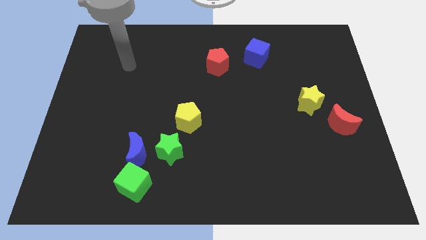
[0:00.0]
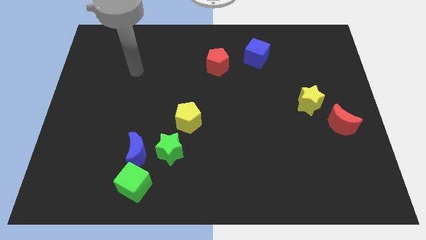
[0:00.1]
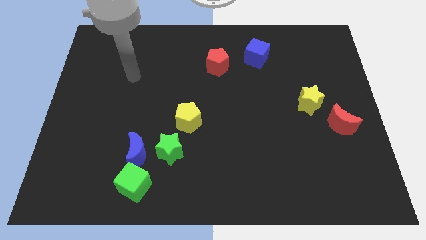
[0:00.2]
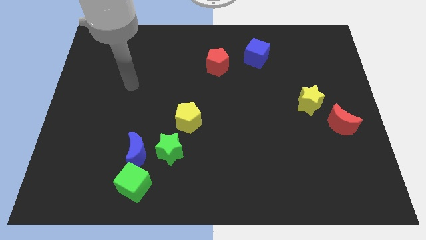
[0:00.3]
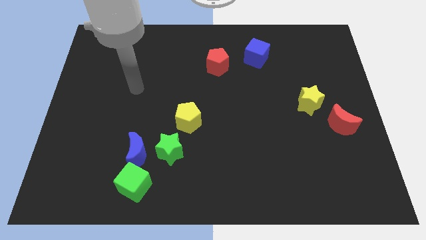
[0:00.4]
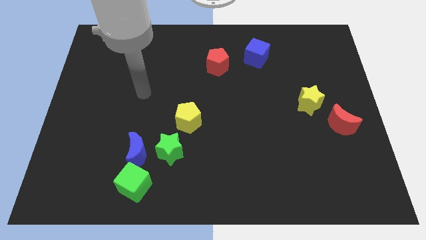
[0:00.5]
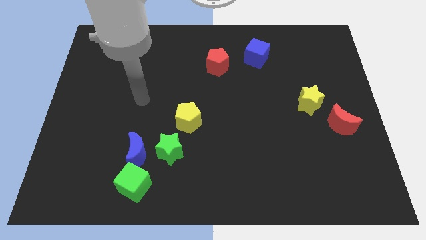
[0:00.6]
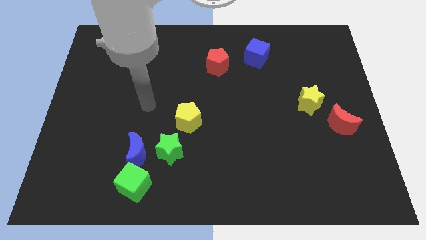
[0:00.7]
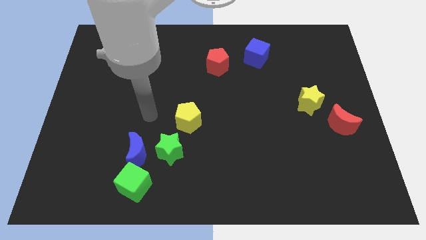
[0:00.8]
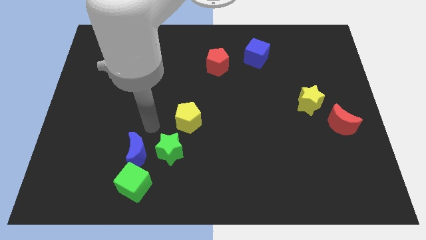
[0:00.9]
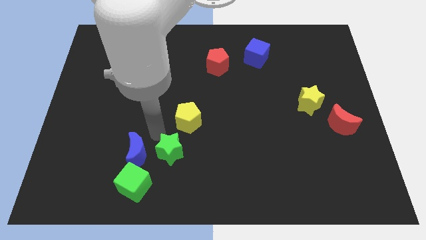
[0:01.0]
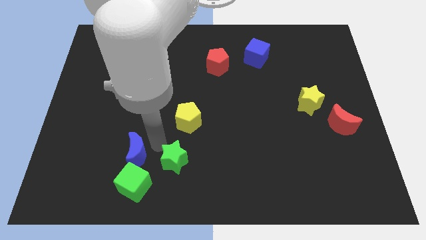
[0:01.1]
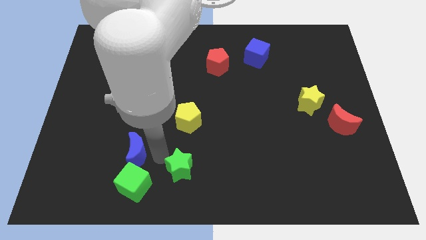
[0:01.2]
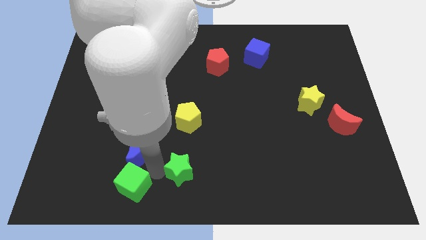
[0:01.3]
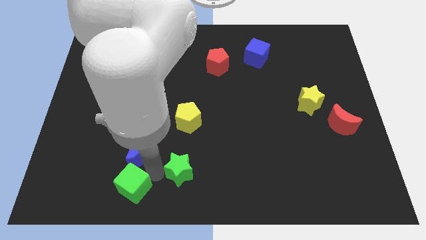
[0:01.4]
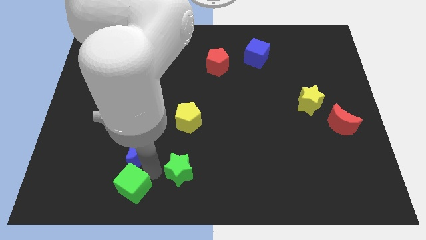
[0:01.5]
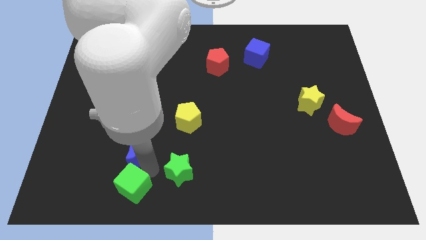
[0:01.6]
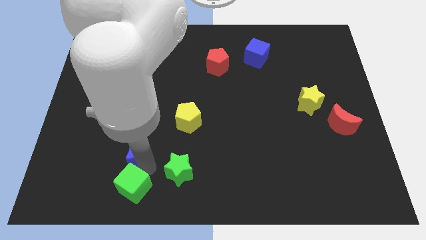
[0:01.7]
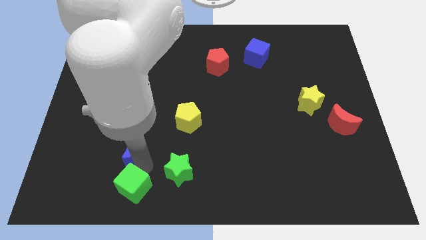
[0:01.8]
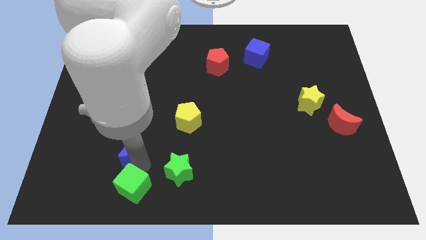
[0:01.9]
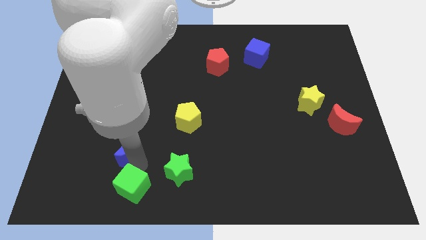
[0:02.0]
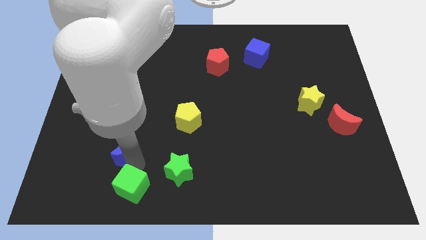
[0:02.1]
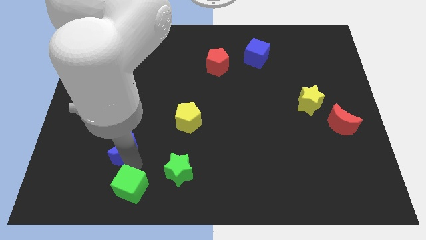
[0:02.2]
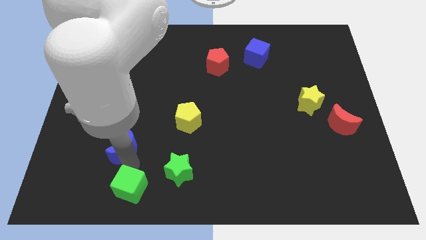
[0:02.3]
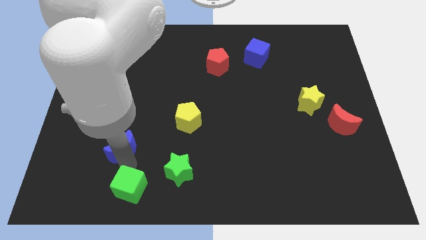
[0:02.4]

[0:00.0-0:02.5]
separate the blue moon from the green star and green cube

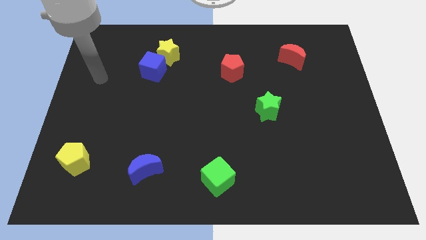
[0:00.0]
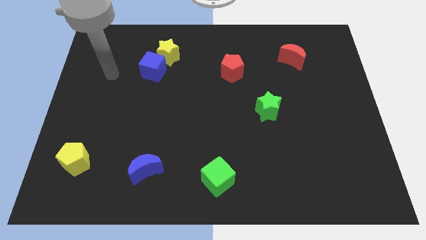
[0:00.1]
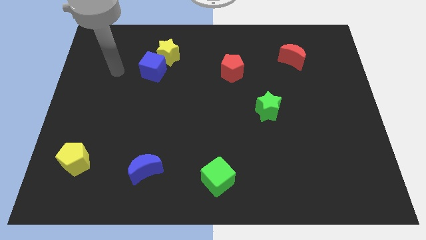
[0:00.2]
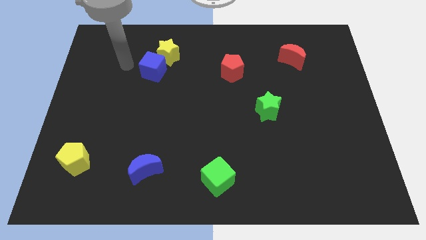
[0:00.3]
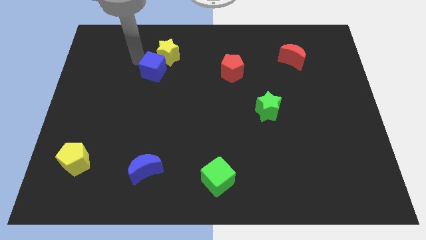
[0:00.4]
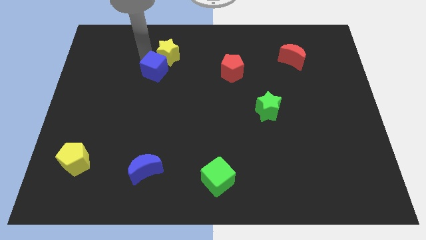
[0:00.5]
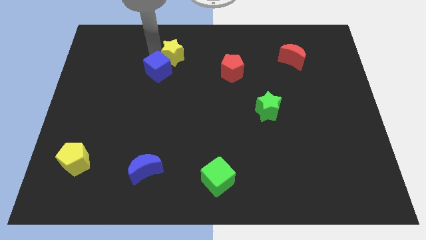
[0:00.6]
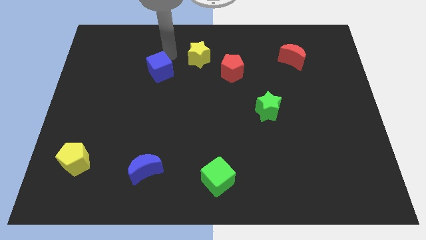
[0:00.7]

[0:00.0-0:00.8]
separate the blue cube from the yellow star

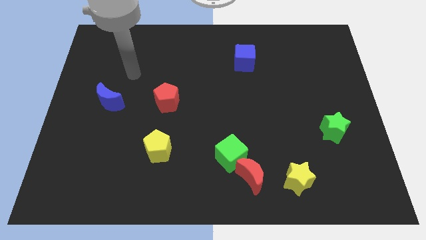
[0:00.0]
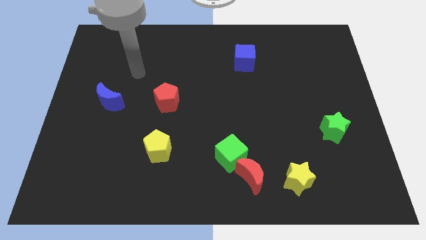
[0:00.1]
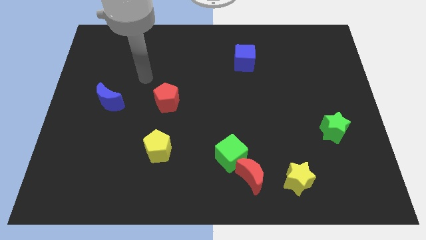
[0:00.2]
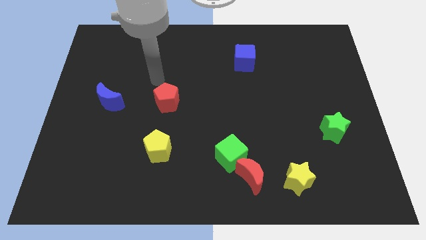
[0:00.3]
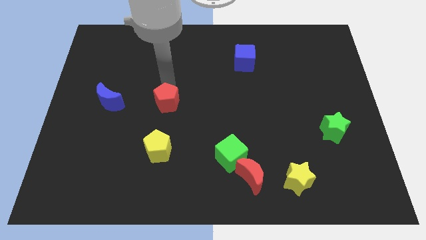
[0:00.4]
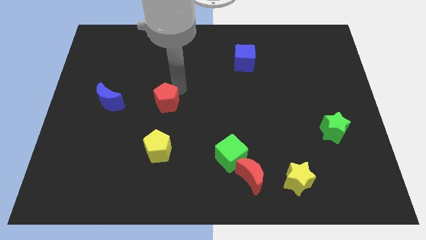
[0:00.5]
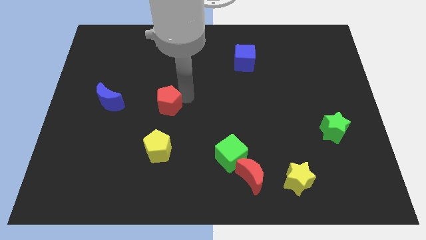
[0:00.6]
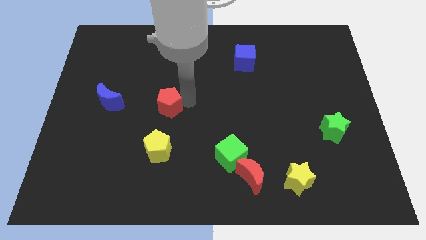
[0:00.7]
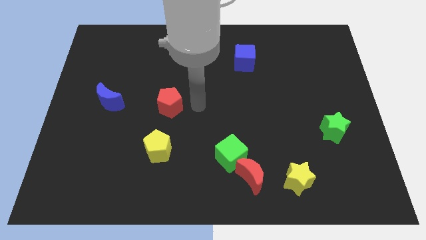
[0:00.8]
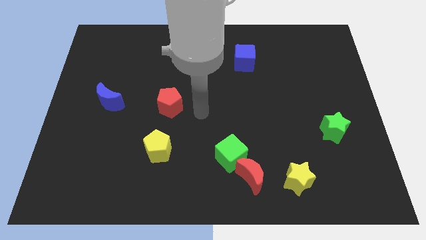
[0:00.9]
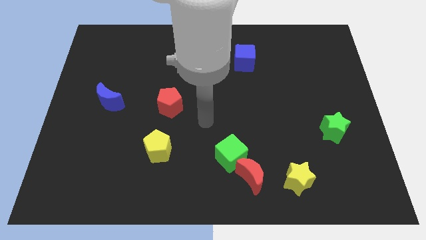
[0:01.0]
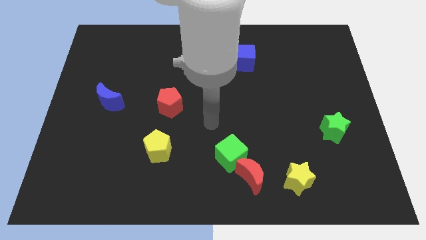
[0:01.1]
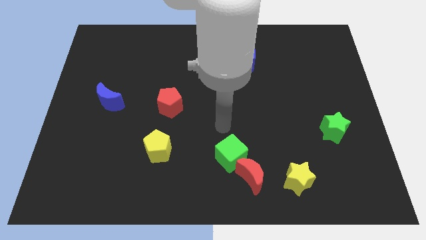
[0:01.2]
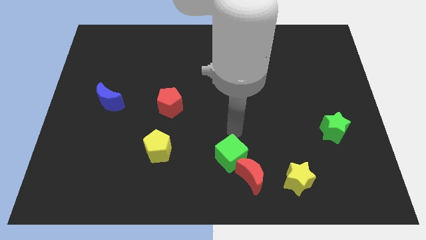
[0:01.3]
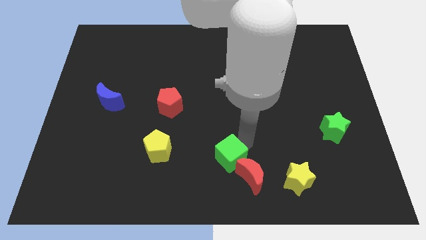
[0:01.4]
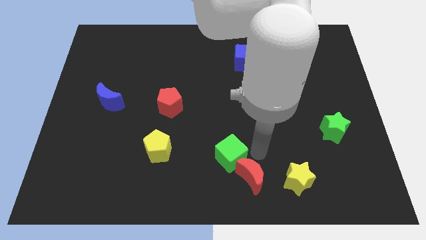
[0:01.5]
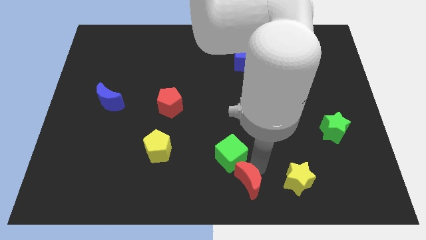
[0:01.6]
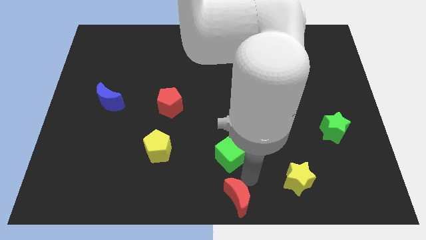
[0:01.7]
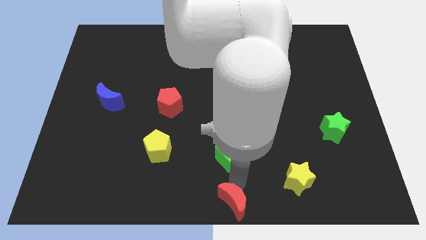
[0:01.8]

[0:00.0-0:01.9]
pull the green cube apart from the red moon

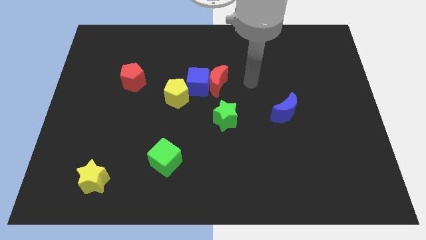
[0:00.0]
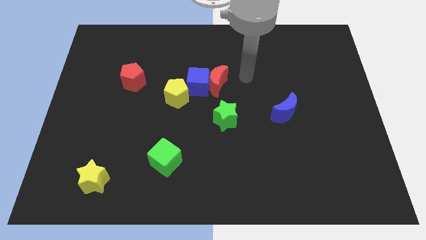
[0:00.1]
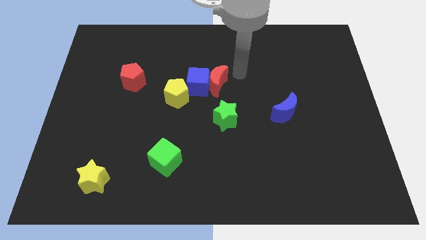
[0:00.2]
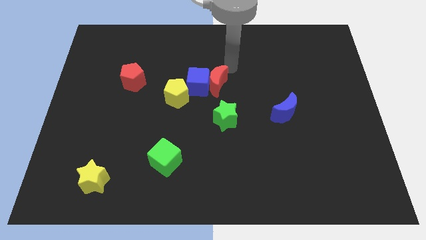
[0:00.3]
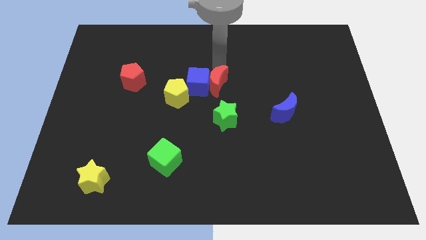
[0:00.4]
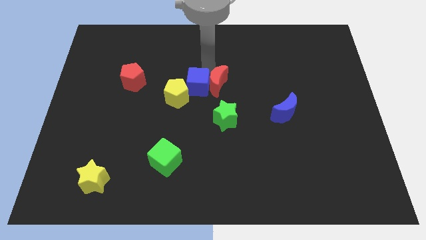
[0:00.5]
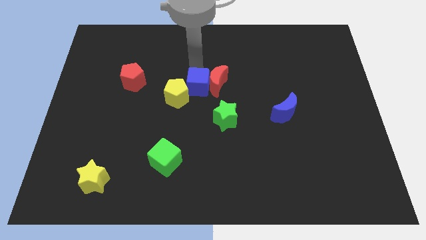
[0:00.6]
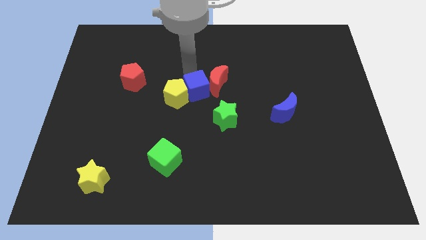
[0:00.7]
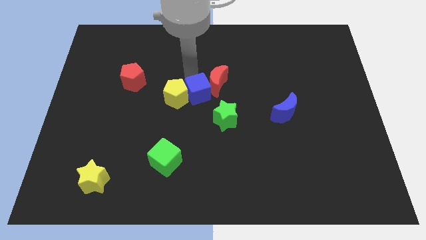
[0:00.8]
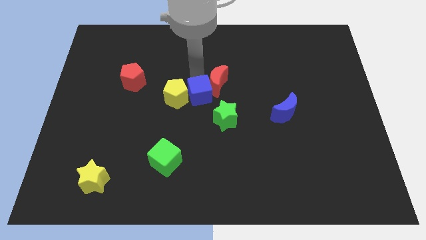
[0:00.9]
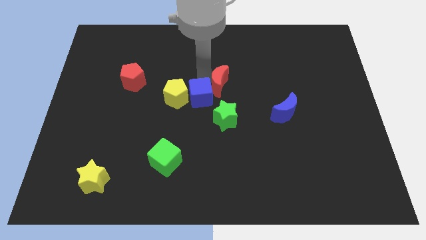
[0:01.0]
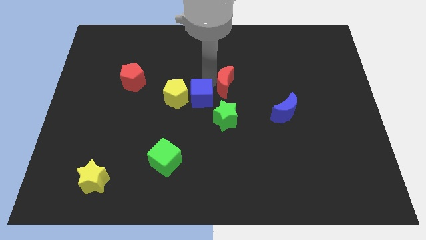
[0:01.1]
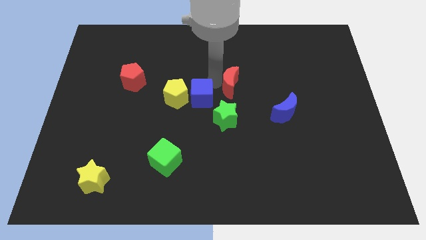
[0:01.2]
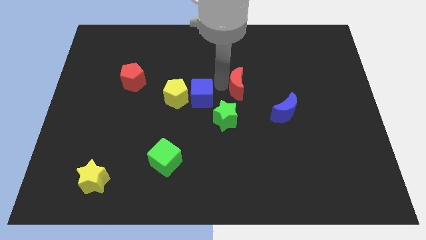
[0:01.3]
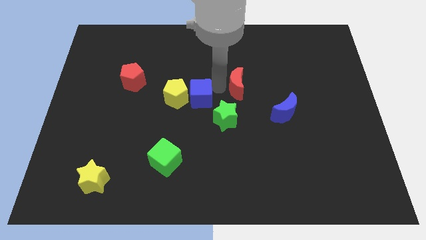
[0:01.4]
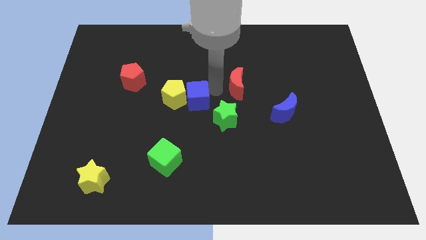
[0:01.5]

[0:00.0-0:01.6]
separate the red moon from the blue cube

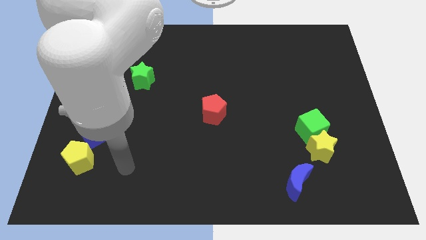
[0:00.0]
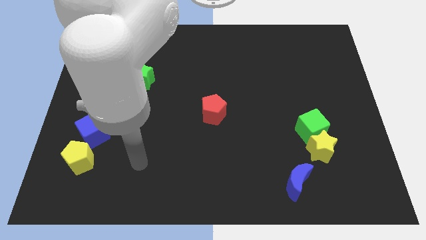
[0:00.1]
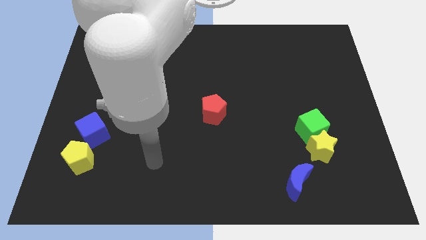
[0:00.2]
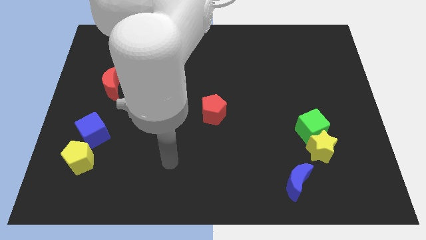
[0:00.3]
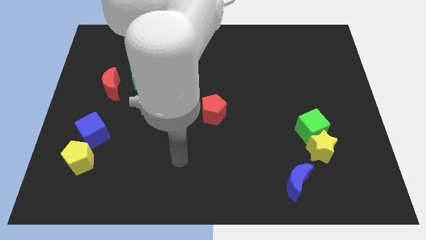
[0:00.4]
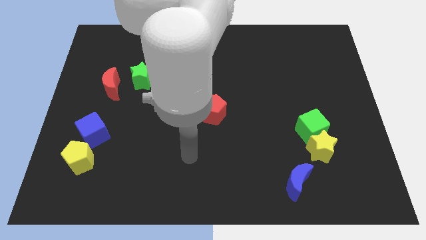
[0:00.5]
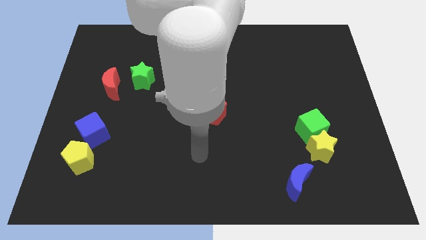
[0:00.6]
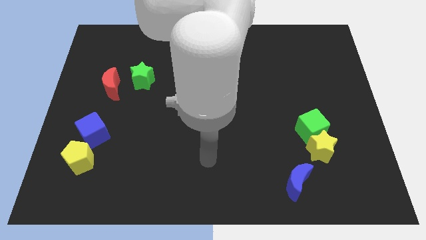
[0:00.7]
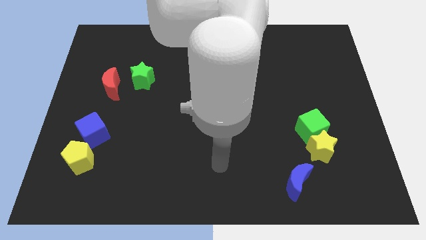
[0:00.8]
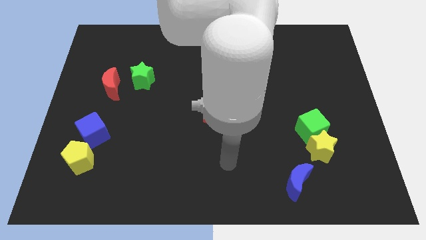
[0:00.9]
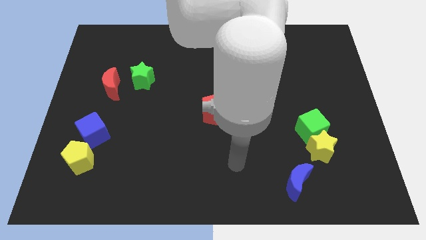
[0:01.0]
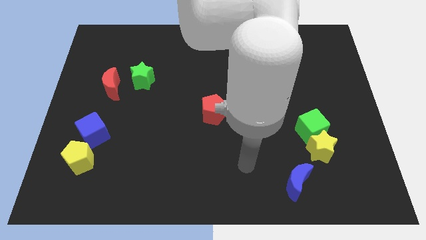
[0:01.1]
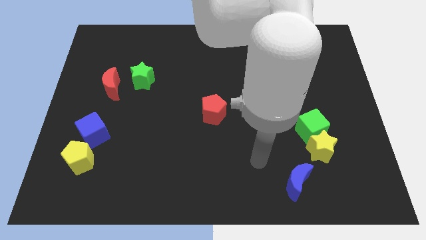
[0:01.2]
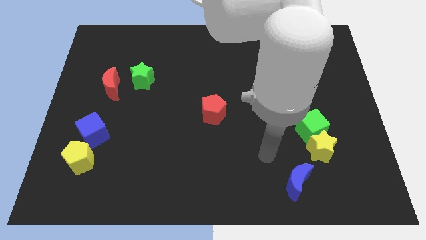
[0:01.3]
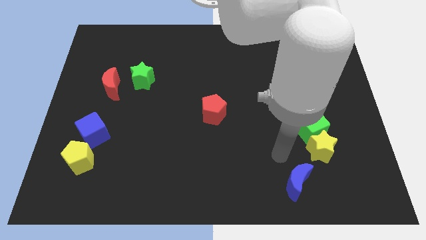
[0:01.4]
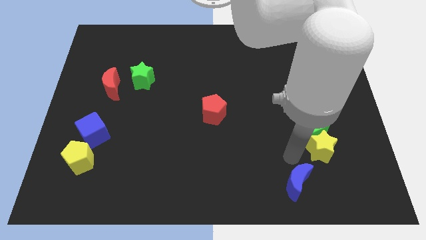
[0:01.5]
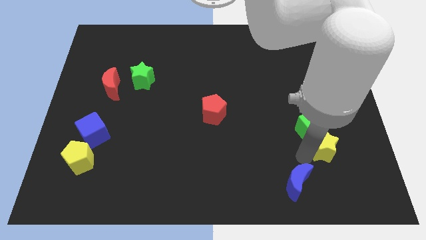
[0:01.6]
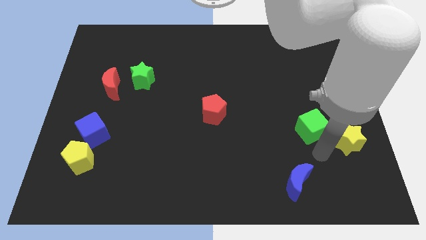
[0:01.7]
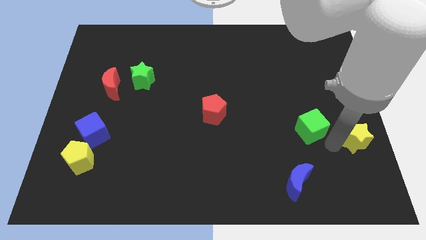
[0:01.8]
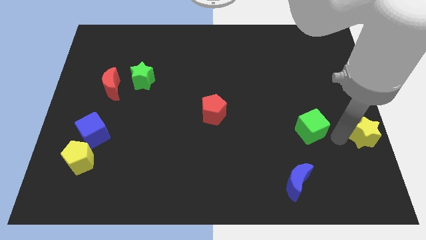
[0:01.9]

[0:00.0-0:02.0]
pull the green cube apart from the yellow star

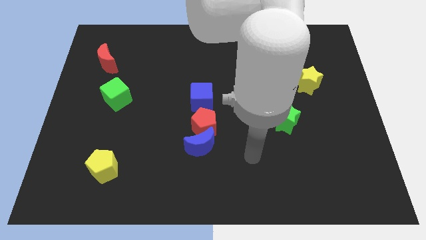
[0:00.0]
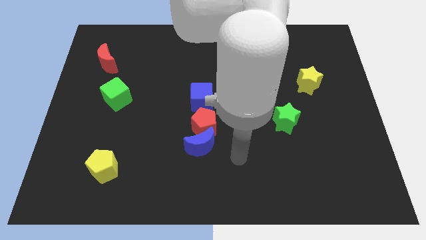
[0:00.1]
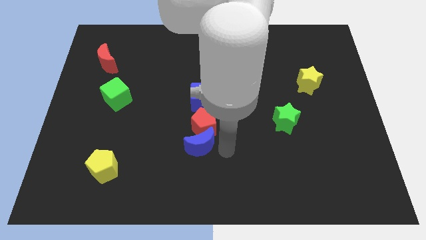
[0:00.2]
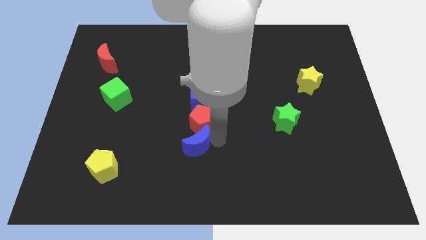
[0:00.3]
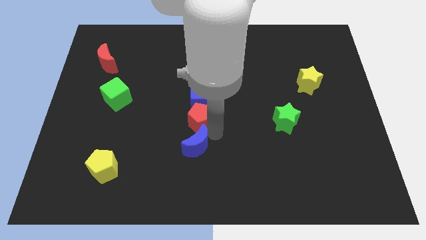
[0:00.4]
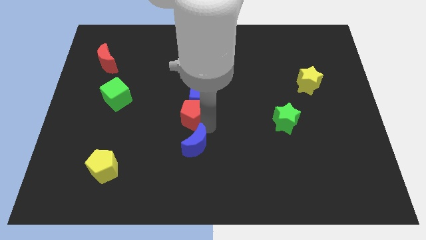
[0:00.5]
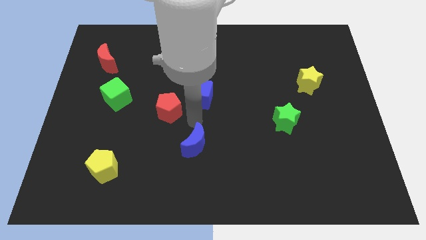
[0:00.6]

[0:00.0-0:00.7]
separate the blue moon from the red pentagon
